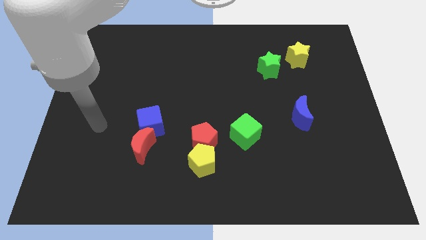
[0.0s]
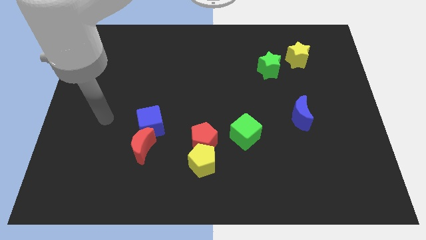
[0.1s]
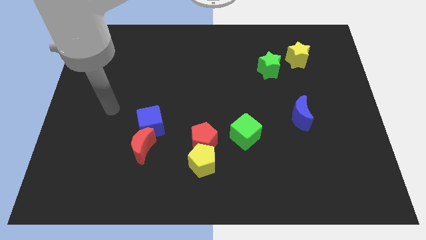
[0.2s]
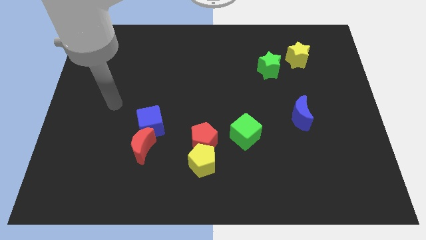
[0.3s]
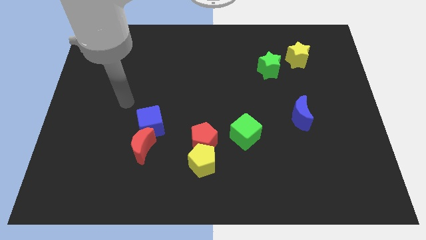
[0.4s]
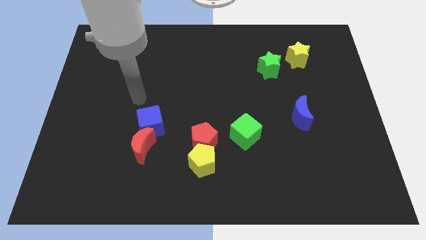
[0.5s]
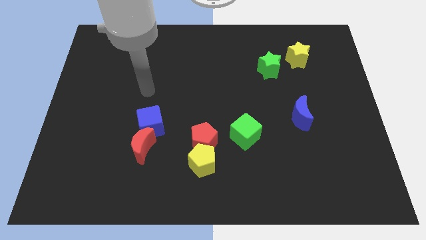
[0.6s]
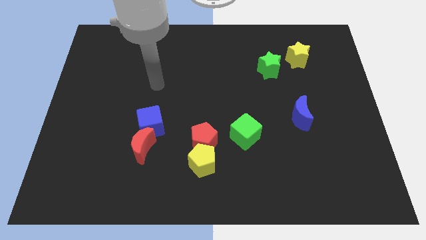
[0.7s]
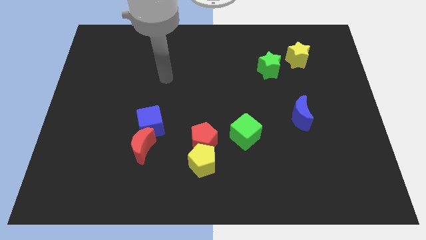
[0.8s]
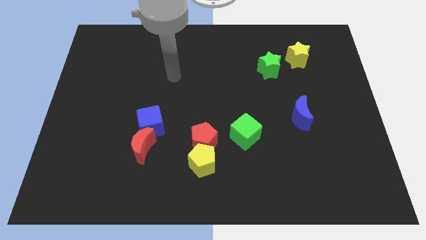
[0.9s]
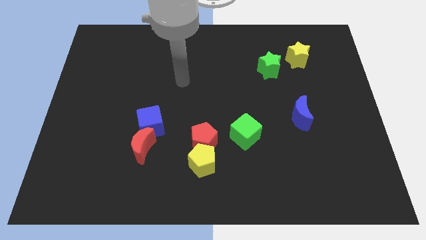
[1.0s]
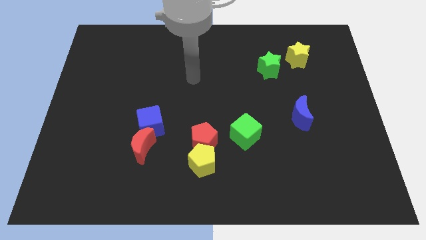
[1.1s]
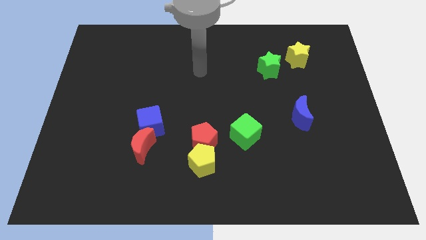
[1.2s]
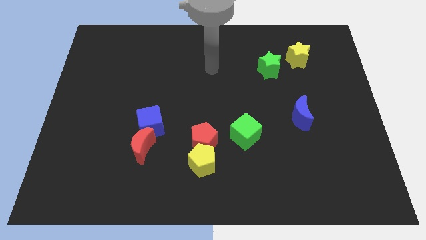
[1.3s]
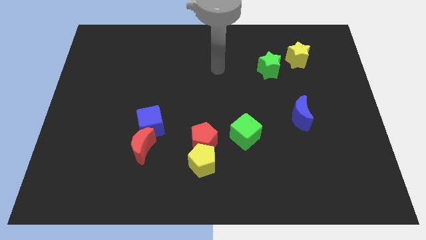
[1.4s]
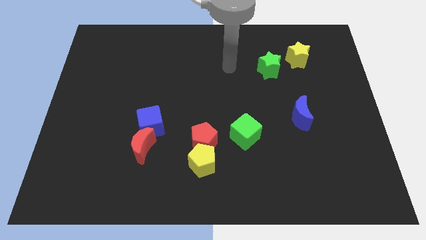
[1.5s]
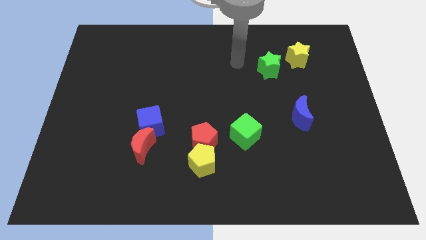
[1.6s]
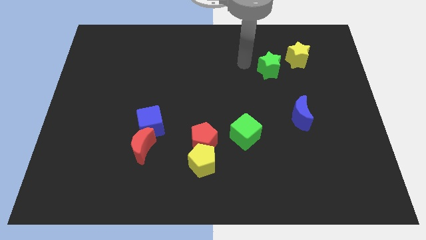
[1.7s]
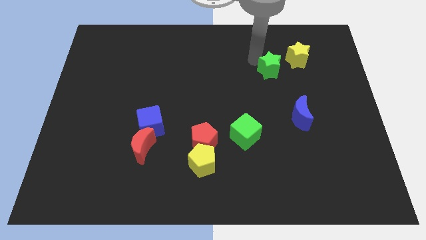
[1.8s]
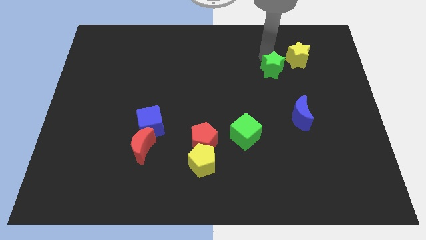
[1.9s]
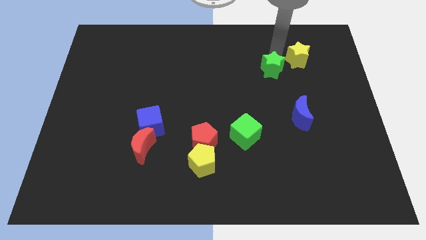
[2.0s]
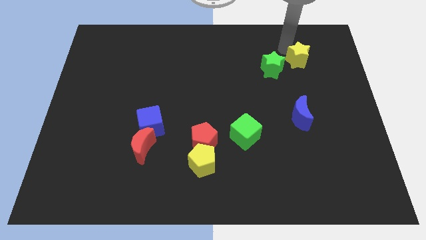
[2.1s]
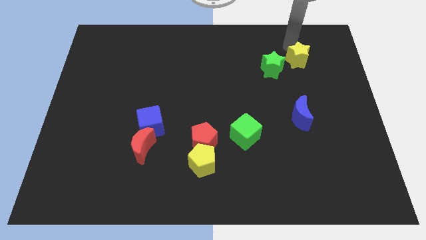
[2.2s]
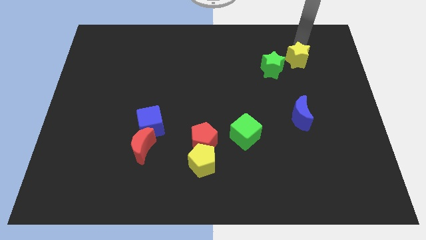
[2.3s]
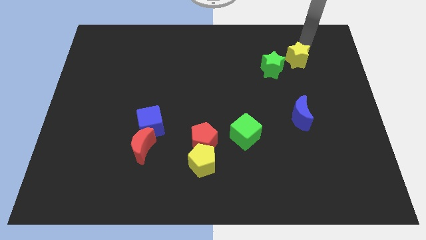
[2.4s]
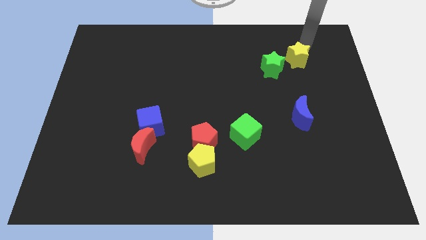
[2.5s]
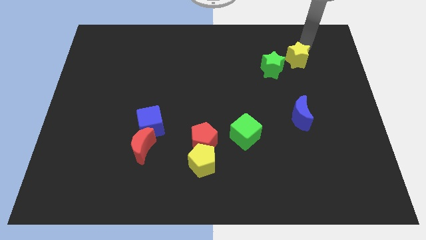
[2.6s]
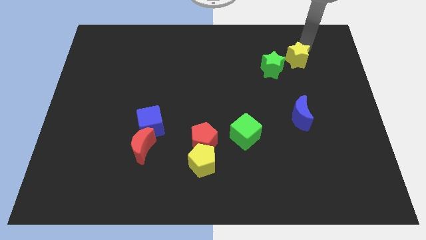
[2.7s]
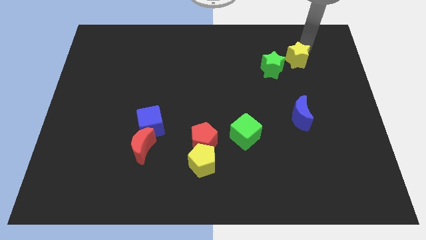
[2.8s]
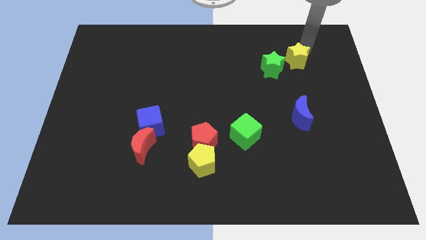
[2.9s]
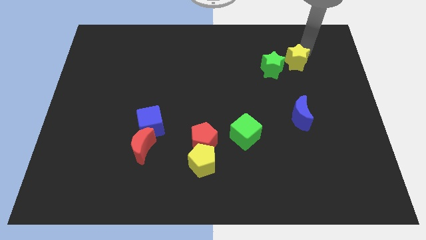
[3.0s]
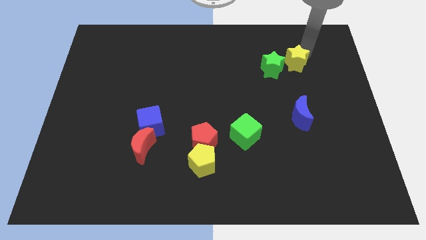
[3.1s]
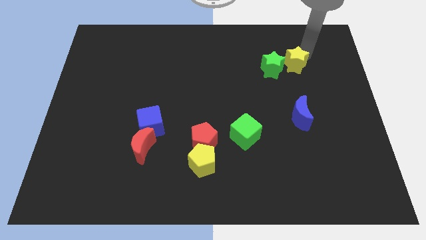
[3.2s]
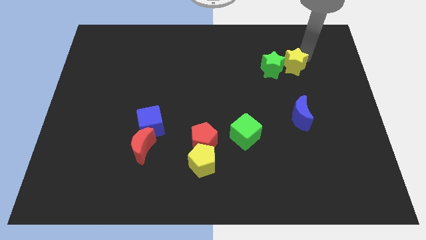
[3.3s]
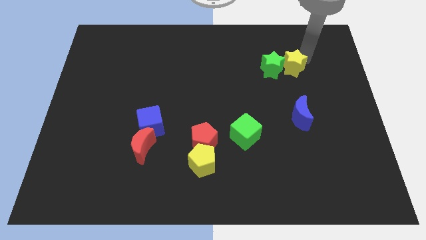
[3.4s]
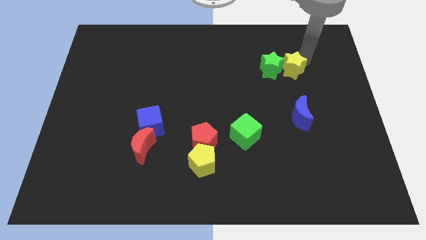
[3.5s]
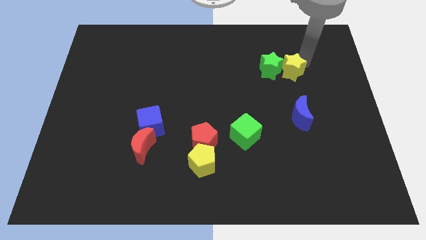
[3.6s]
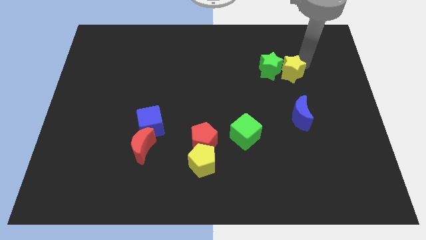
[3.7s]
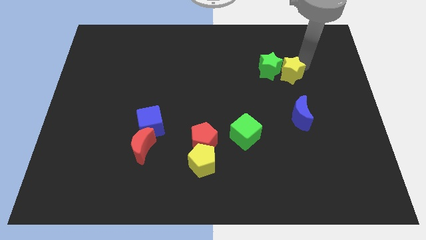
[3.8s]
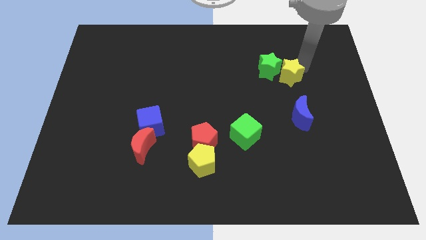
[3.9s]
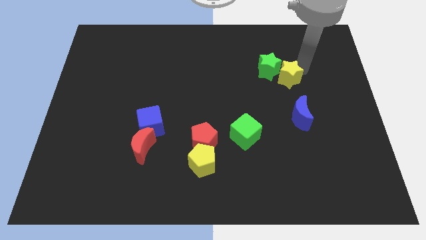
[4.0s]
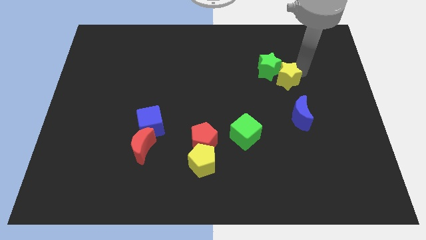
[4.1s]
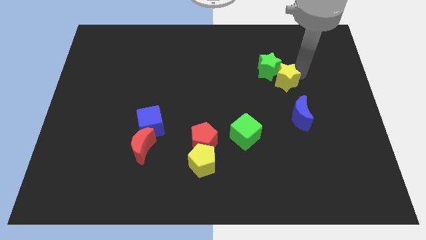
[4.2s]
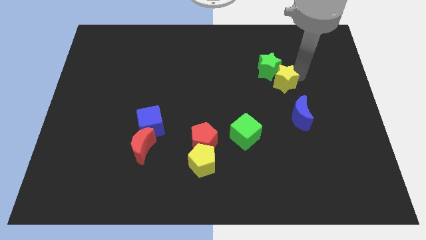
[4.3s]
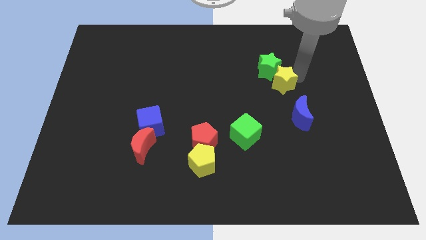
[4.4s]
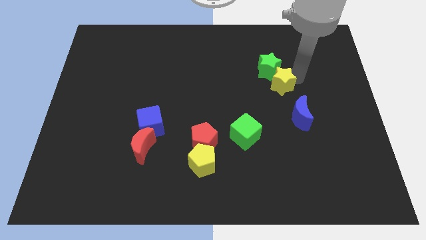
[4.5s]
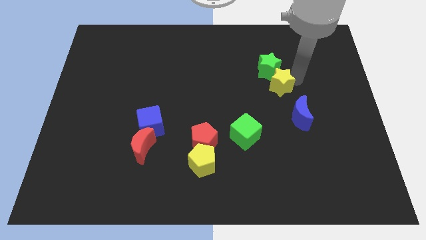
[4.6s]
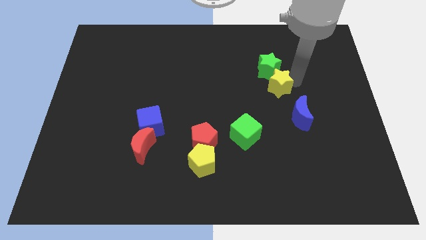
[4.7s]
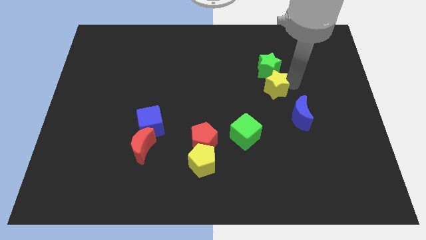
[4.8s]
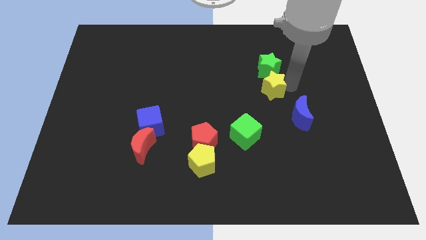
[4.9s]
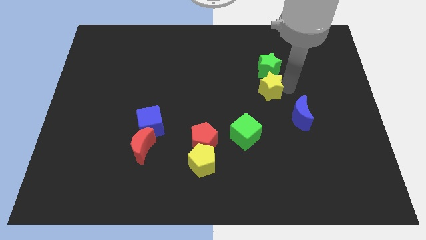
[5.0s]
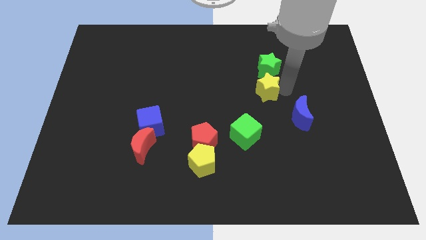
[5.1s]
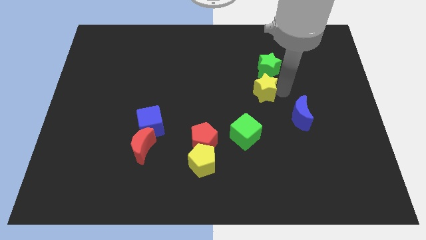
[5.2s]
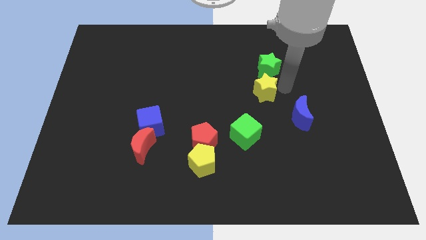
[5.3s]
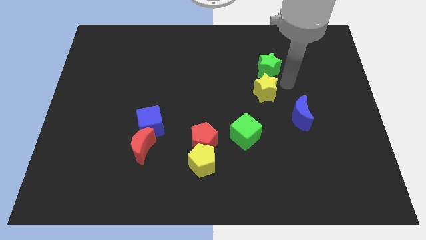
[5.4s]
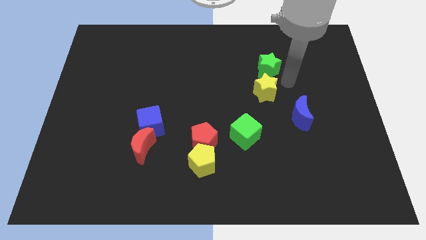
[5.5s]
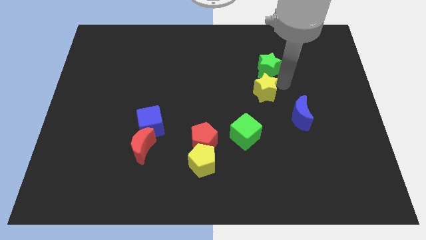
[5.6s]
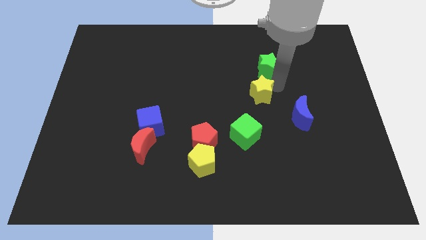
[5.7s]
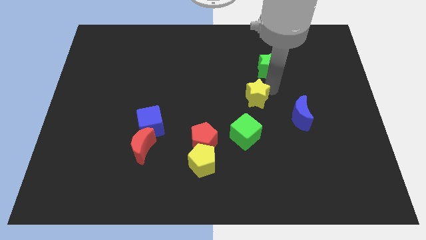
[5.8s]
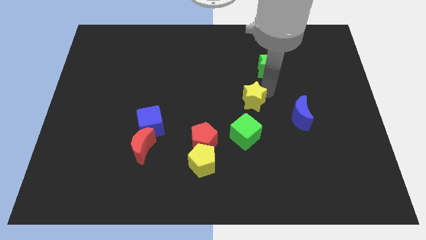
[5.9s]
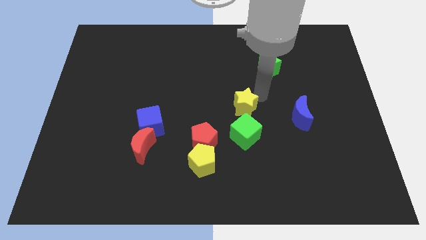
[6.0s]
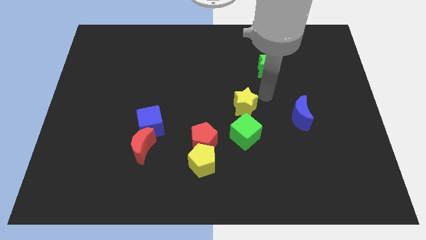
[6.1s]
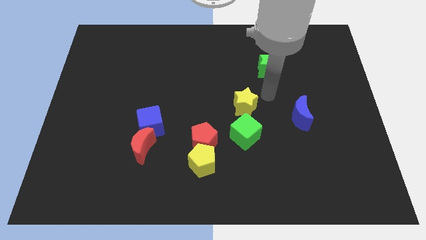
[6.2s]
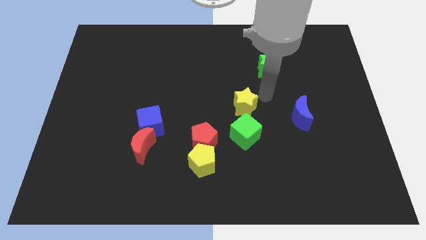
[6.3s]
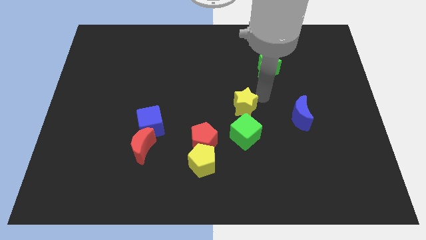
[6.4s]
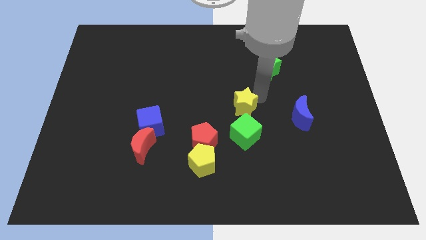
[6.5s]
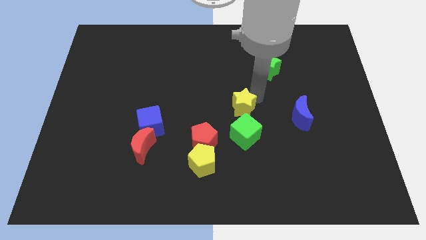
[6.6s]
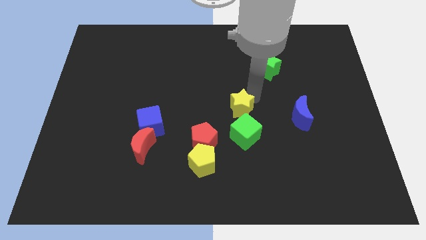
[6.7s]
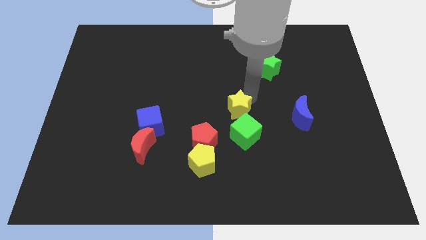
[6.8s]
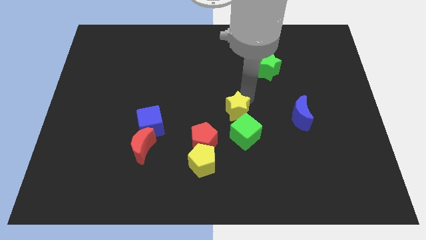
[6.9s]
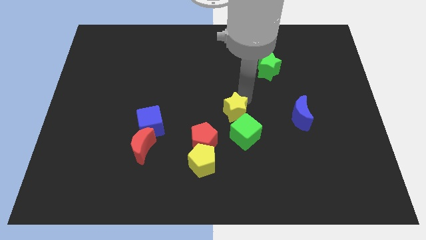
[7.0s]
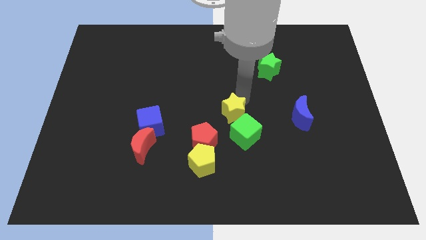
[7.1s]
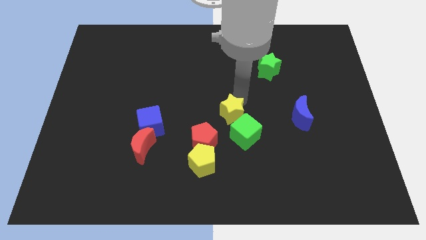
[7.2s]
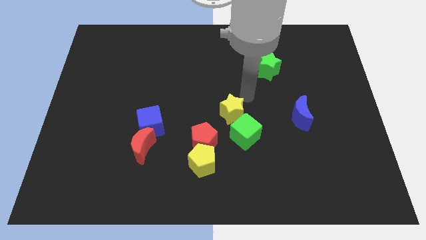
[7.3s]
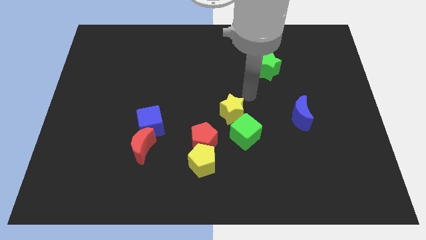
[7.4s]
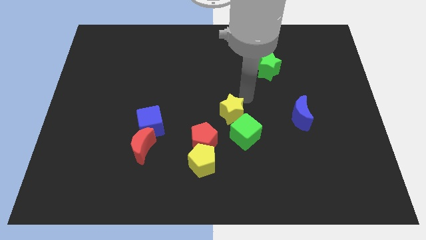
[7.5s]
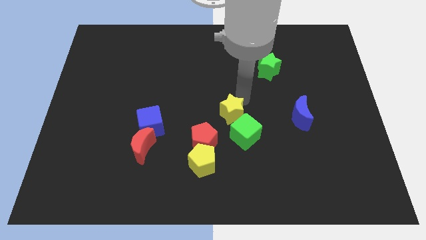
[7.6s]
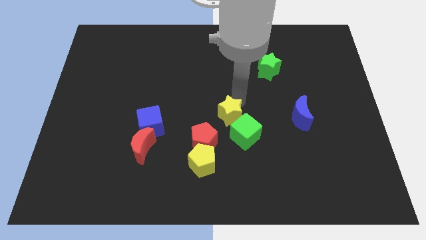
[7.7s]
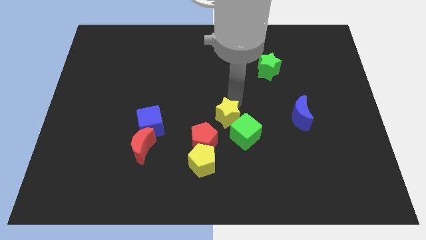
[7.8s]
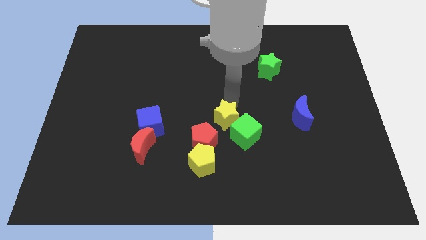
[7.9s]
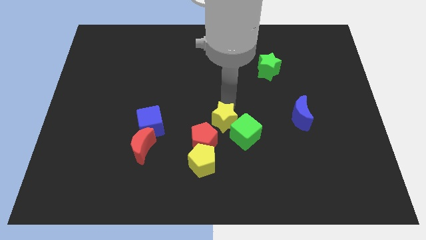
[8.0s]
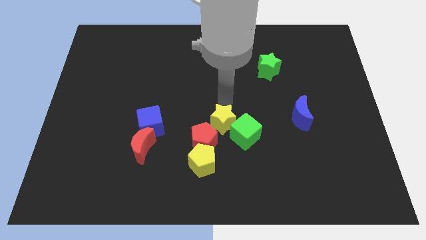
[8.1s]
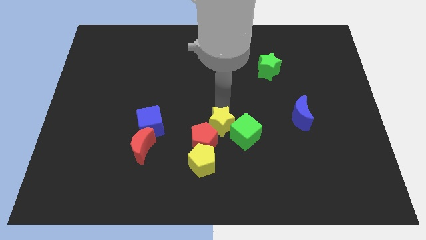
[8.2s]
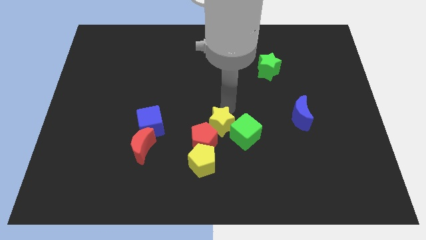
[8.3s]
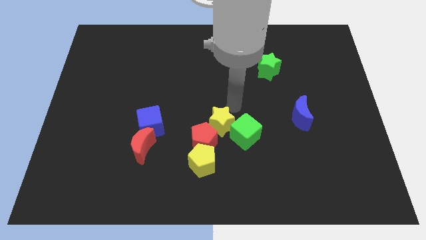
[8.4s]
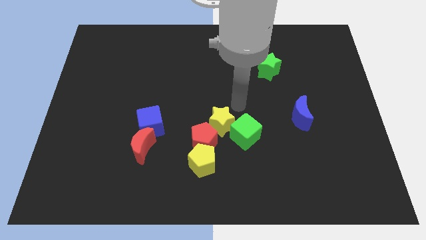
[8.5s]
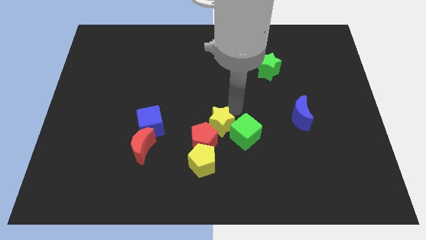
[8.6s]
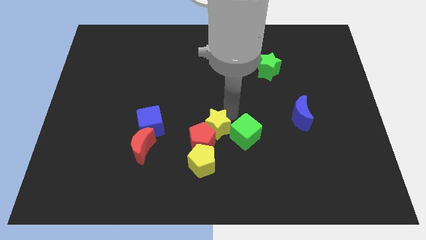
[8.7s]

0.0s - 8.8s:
move the yellow star close to the red pentagon
